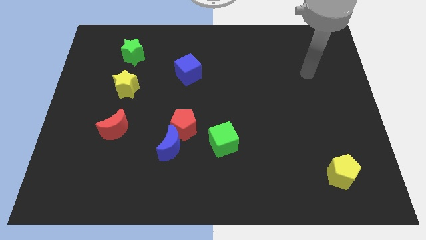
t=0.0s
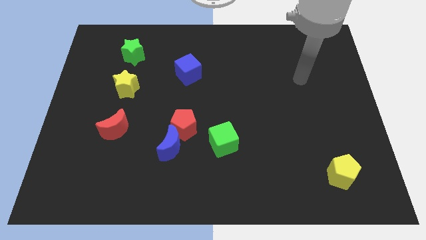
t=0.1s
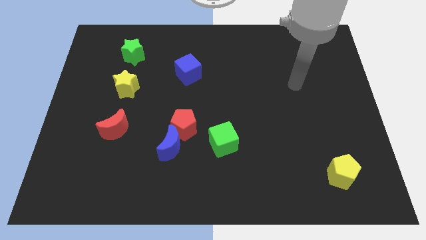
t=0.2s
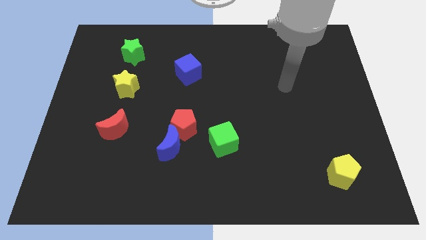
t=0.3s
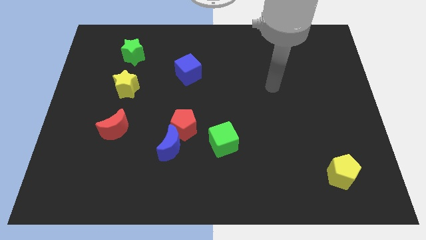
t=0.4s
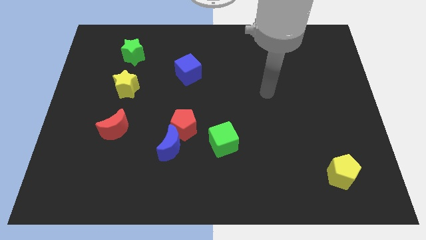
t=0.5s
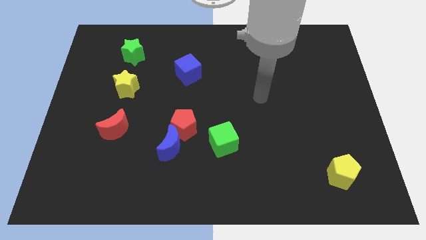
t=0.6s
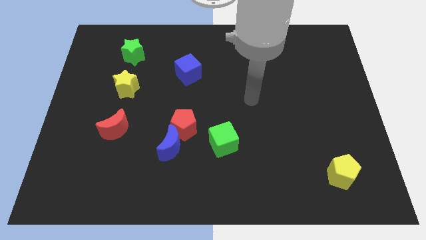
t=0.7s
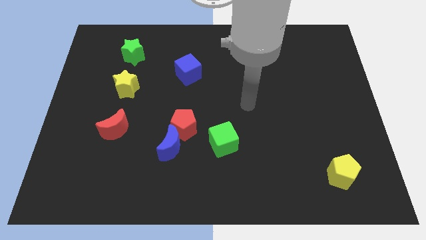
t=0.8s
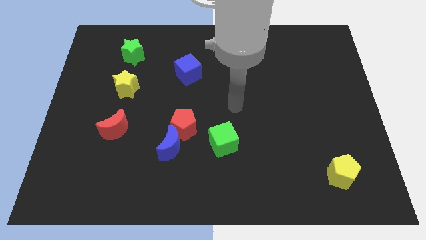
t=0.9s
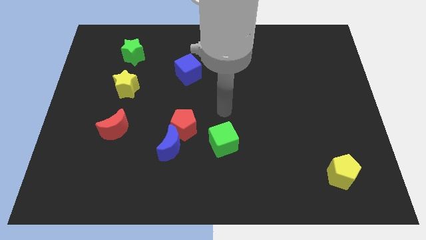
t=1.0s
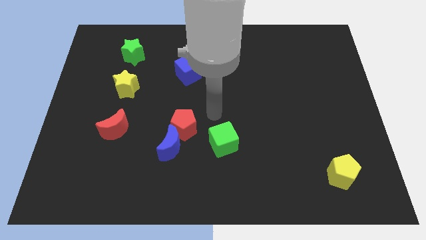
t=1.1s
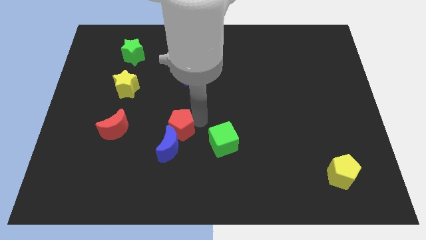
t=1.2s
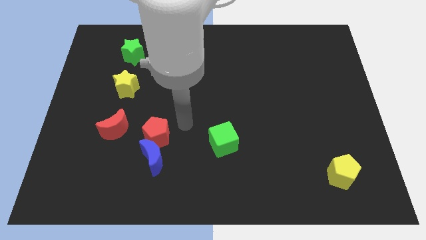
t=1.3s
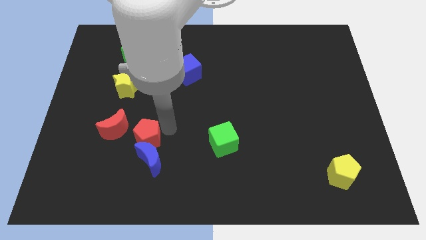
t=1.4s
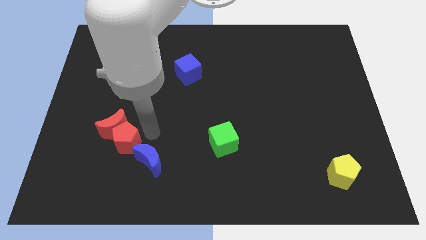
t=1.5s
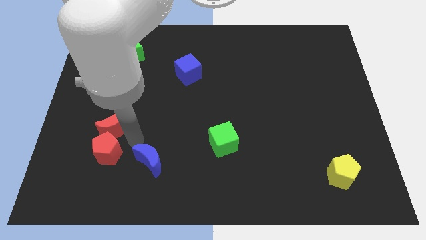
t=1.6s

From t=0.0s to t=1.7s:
pull the blue moon apart from the red pentagon

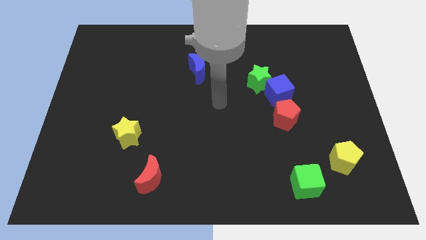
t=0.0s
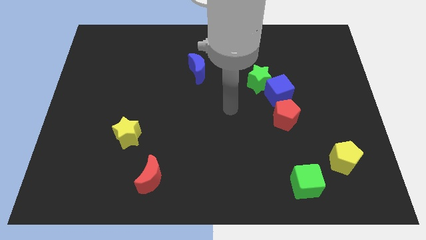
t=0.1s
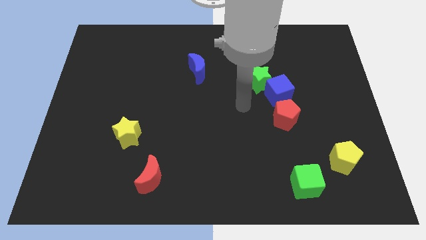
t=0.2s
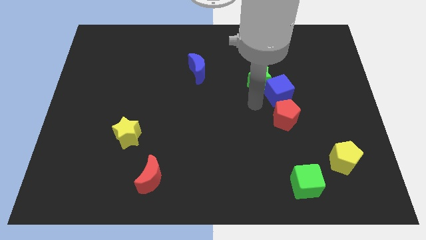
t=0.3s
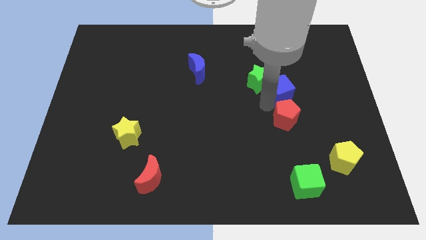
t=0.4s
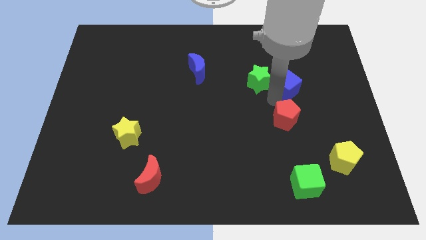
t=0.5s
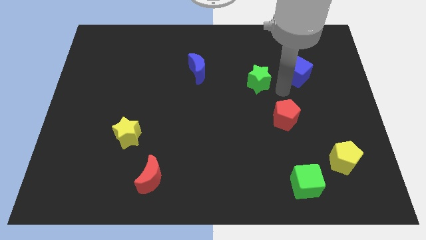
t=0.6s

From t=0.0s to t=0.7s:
separate the green star from the blue cube

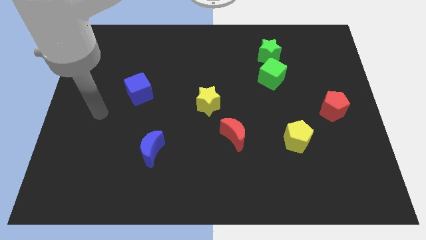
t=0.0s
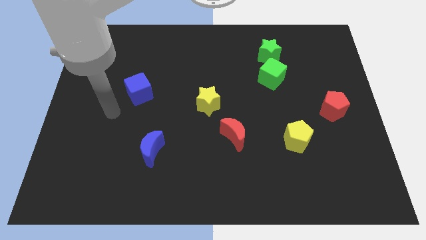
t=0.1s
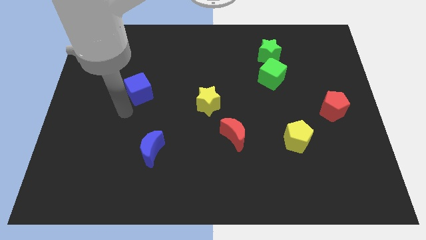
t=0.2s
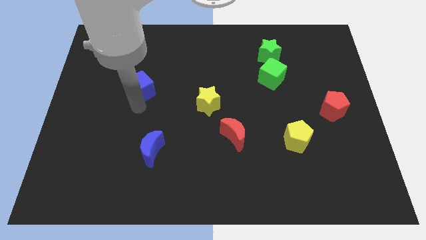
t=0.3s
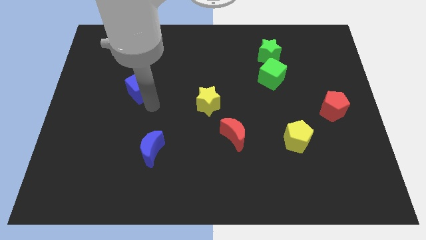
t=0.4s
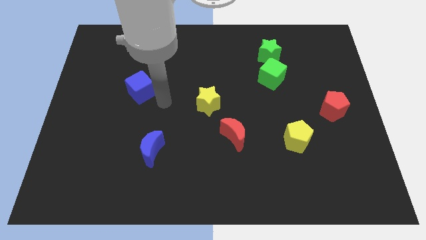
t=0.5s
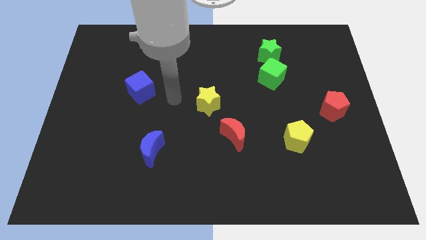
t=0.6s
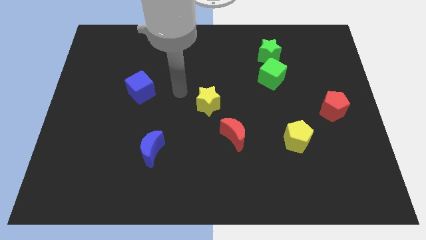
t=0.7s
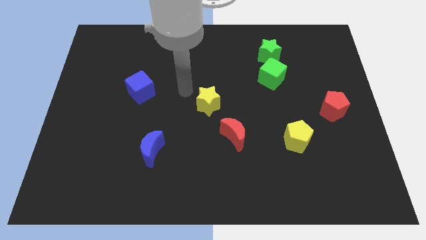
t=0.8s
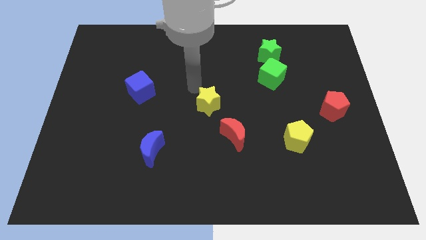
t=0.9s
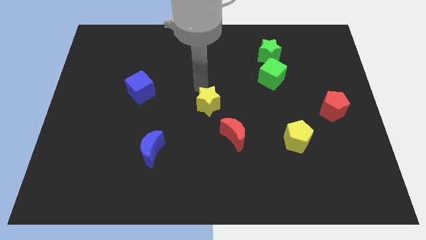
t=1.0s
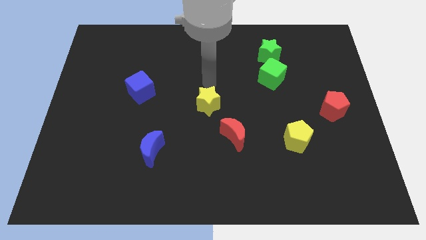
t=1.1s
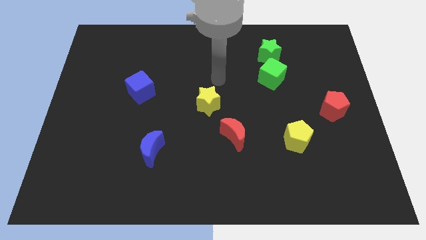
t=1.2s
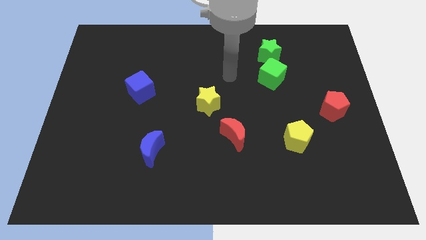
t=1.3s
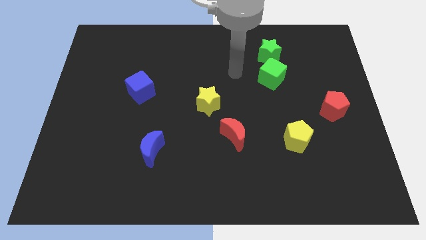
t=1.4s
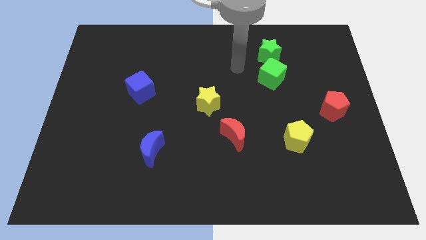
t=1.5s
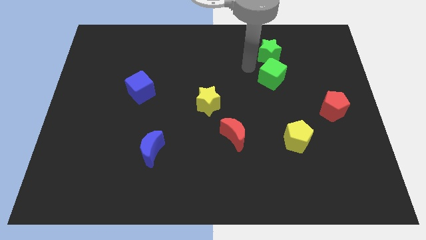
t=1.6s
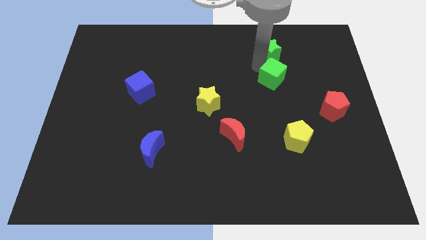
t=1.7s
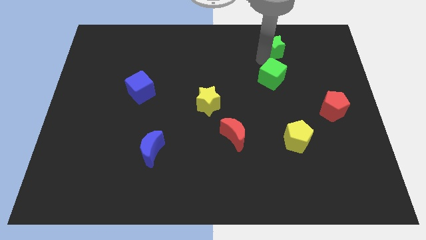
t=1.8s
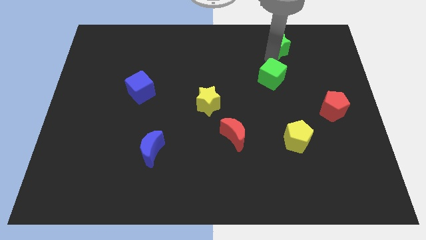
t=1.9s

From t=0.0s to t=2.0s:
move the green cube away from the green star

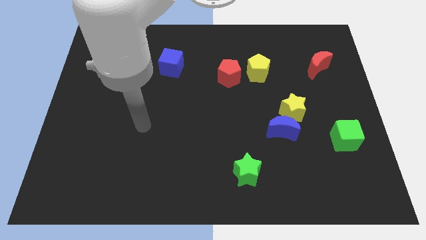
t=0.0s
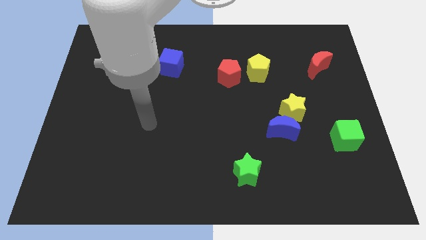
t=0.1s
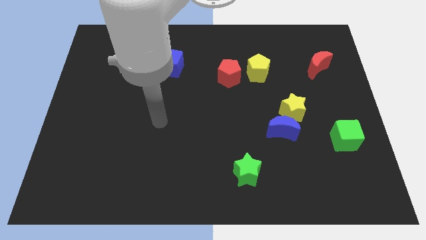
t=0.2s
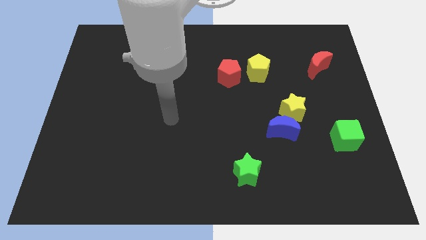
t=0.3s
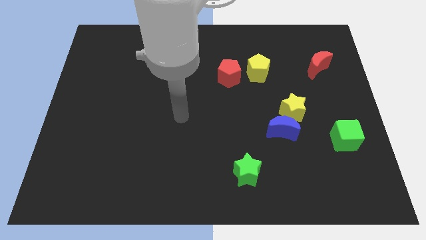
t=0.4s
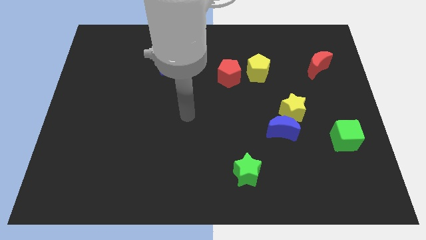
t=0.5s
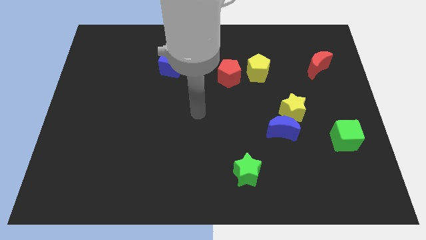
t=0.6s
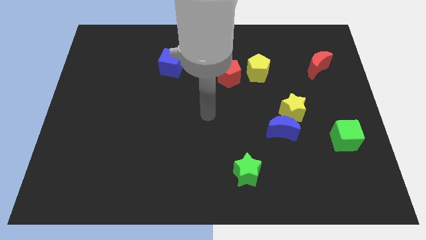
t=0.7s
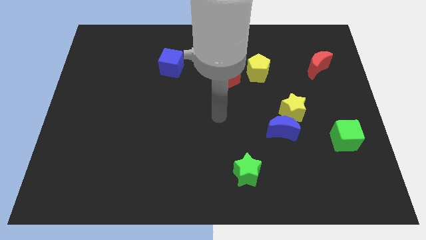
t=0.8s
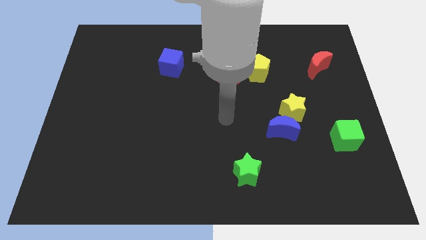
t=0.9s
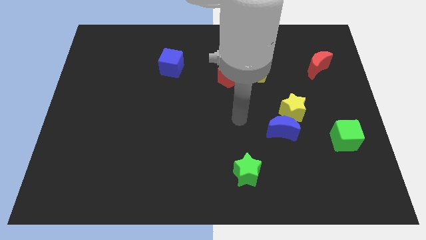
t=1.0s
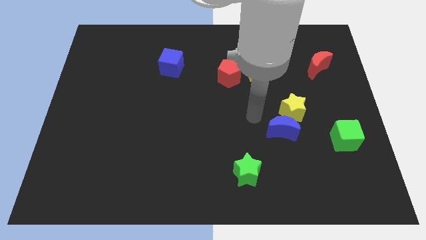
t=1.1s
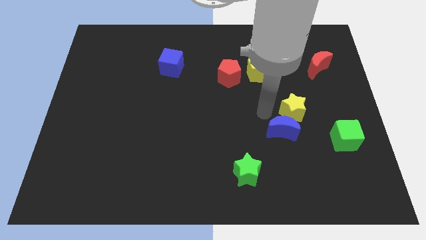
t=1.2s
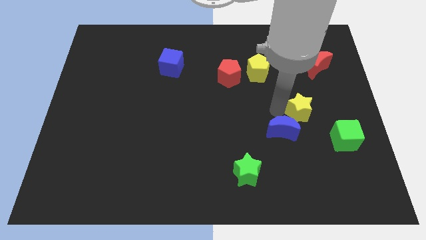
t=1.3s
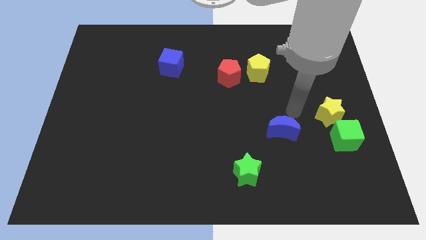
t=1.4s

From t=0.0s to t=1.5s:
move the blue moon away from the yellow star

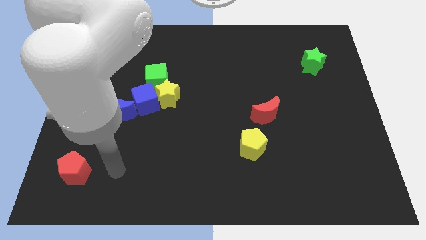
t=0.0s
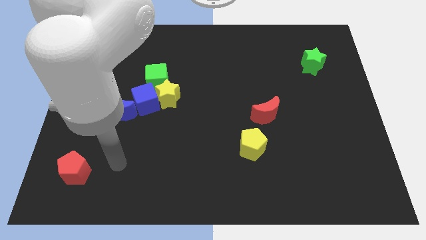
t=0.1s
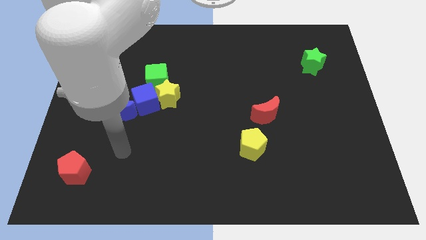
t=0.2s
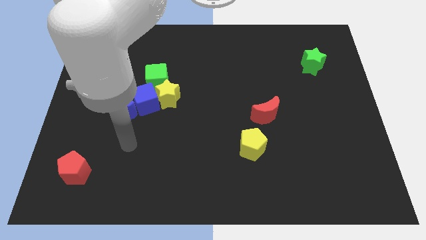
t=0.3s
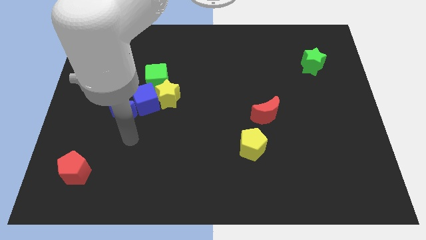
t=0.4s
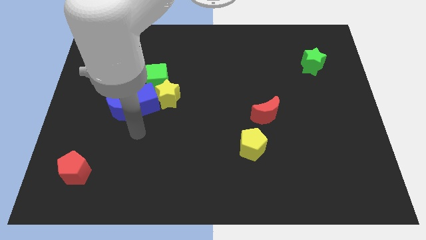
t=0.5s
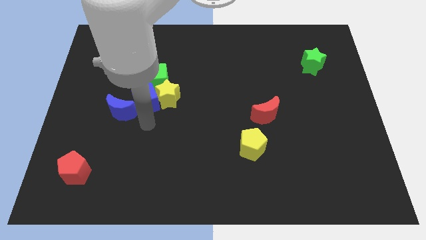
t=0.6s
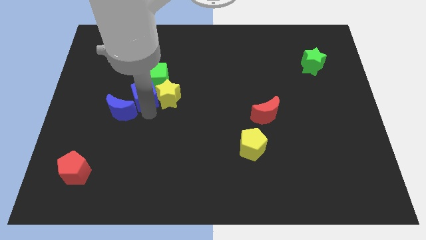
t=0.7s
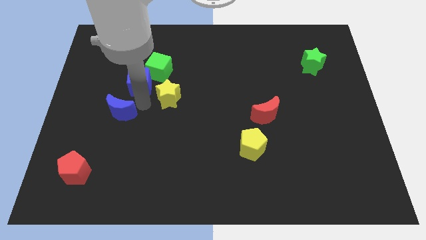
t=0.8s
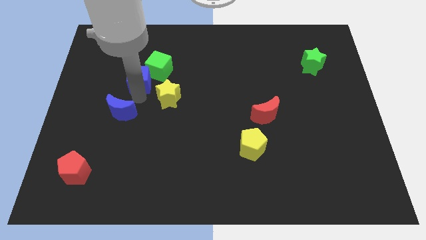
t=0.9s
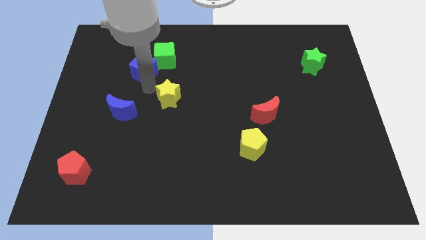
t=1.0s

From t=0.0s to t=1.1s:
pull the yellow star apart from the blue cube and green cube

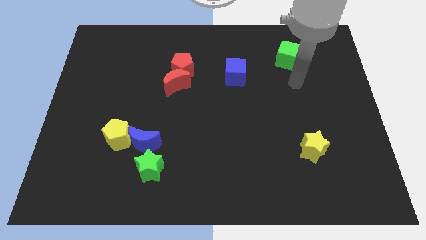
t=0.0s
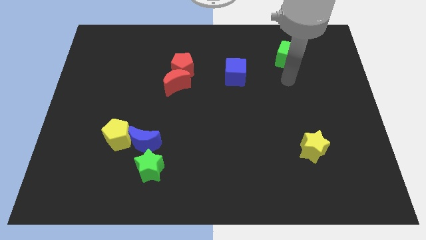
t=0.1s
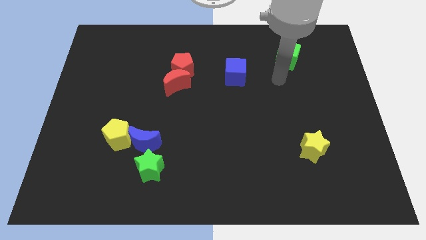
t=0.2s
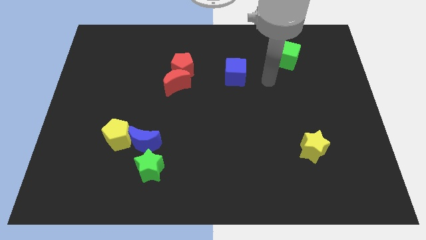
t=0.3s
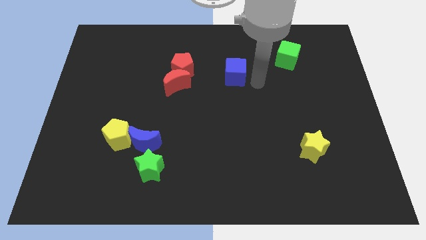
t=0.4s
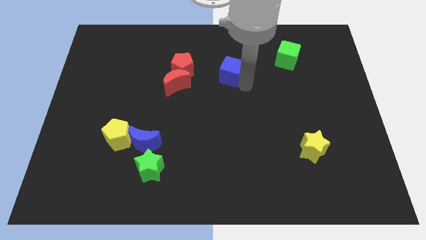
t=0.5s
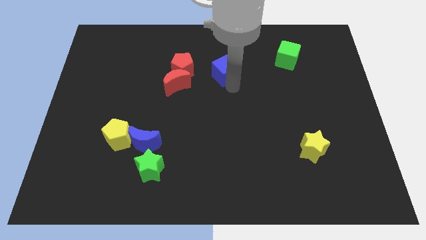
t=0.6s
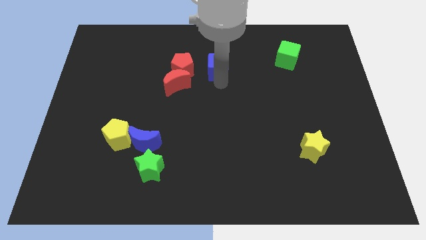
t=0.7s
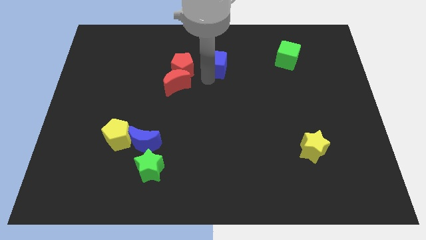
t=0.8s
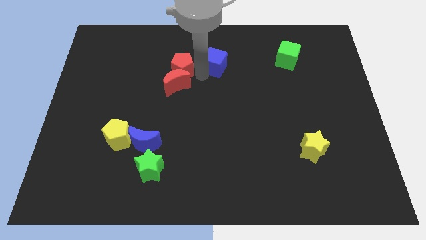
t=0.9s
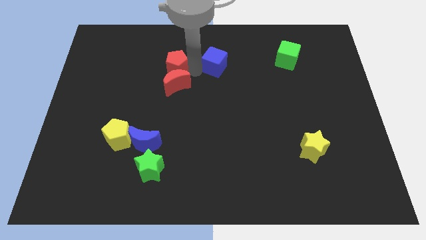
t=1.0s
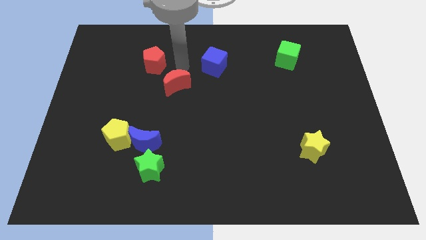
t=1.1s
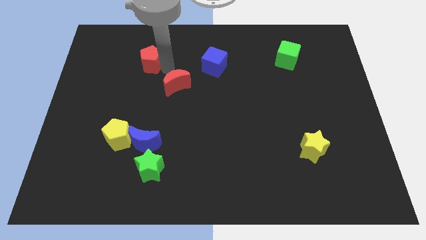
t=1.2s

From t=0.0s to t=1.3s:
pull the red moon apart from the red pentagon

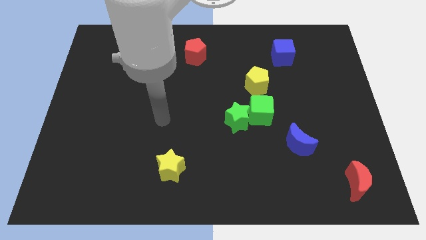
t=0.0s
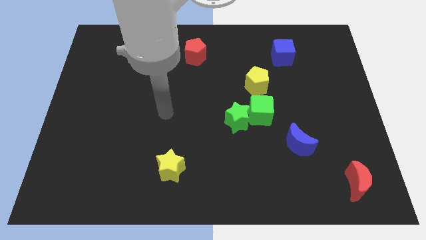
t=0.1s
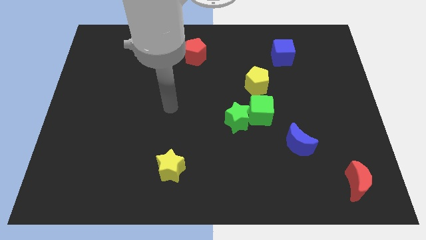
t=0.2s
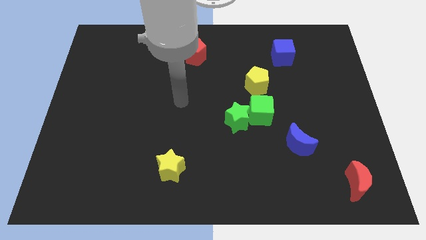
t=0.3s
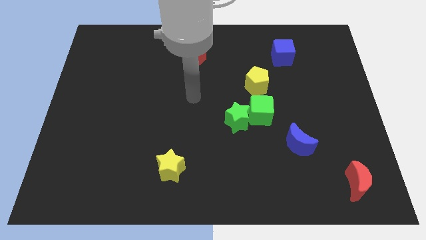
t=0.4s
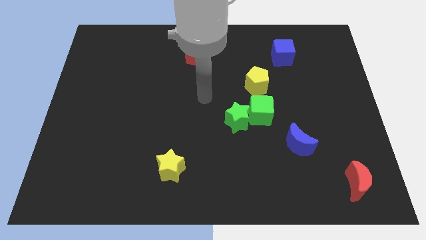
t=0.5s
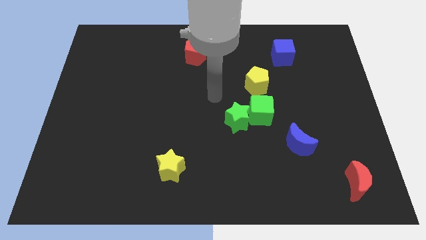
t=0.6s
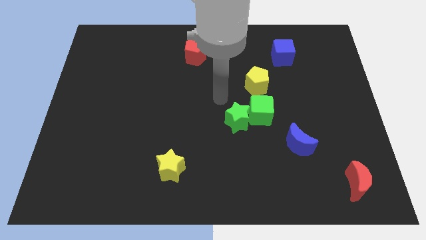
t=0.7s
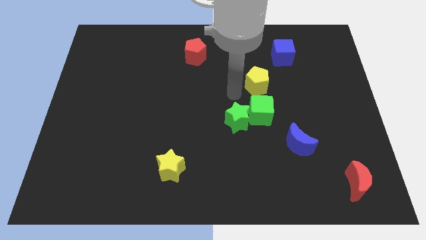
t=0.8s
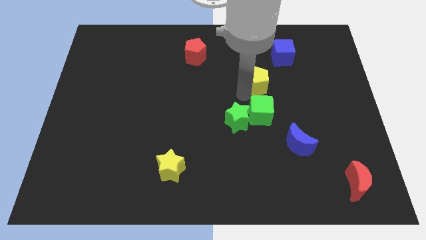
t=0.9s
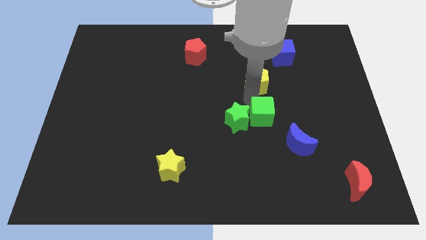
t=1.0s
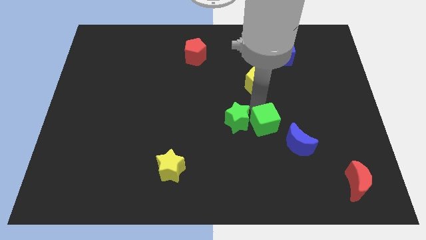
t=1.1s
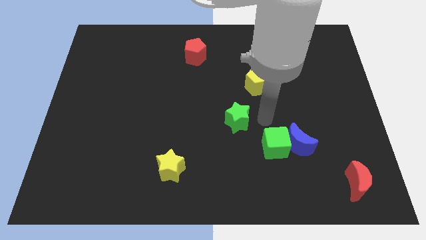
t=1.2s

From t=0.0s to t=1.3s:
pull the green star apart from the green cube
